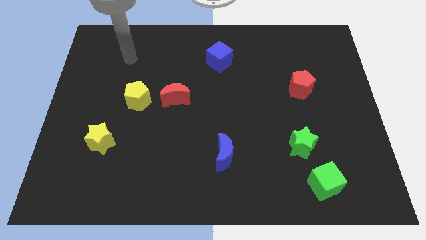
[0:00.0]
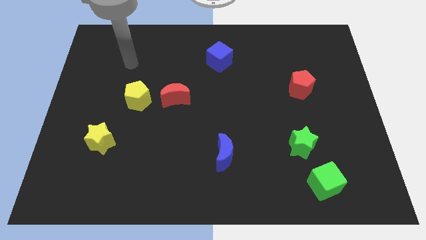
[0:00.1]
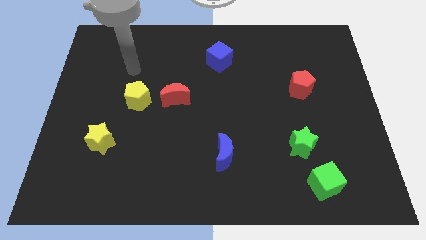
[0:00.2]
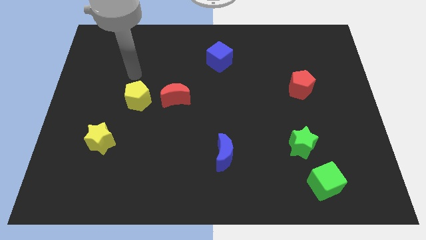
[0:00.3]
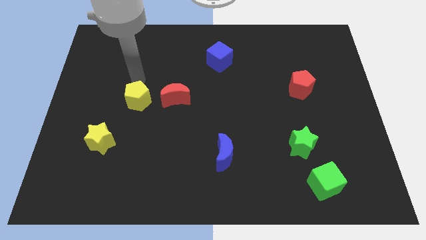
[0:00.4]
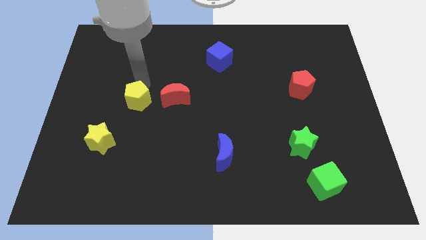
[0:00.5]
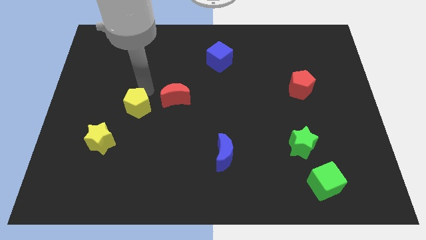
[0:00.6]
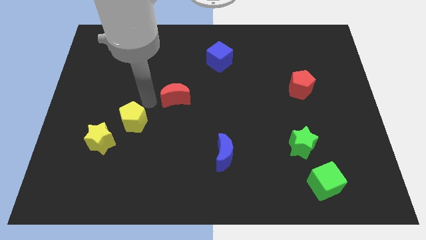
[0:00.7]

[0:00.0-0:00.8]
separate the red moon from the yellow pentagon

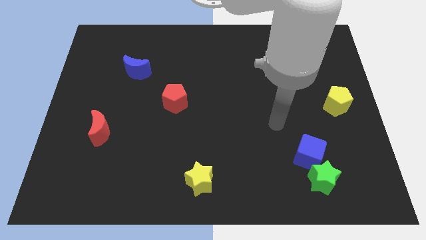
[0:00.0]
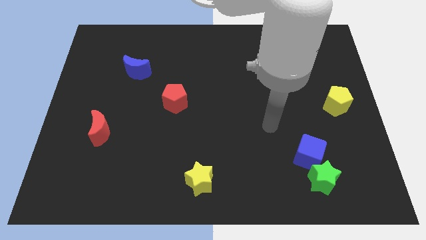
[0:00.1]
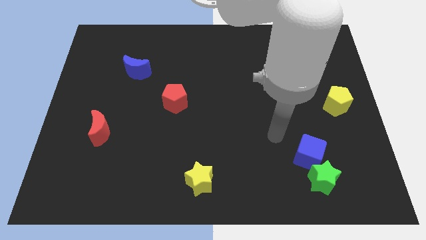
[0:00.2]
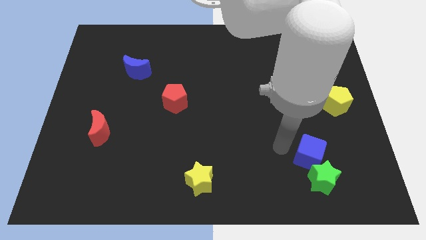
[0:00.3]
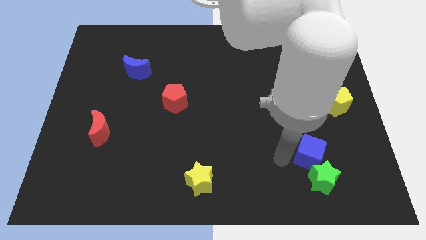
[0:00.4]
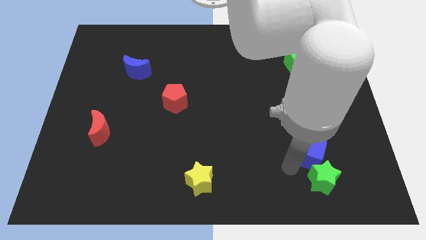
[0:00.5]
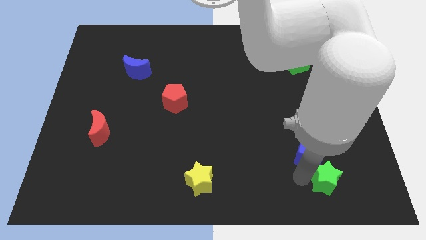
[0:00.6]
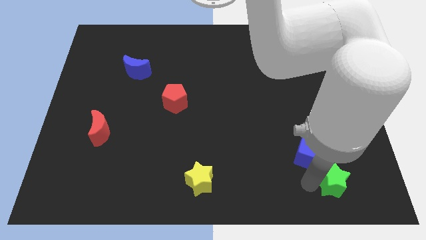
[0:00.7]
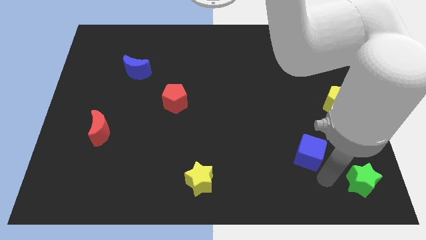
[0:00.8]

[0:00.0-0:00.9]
separate the blue cube from the green star

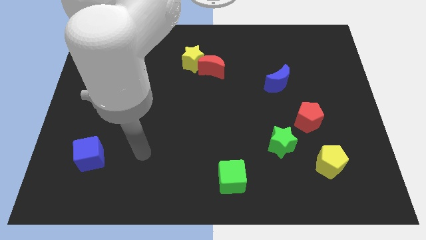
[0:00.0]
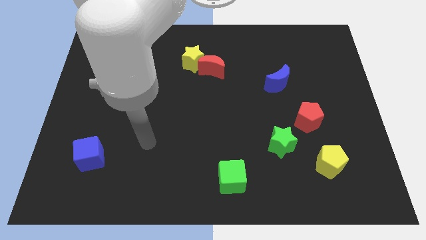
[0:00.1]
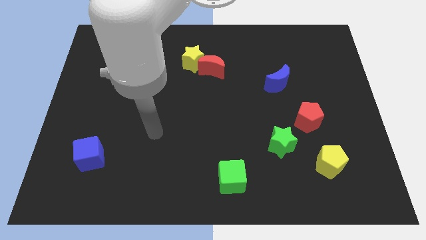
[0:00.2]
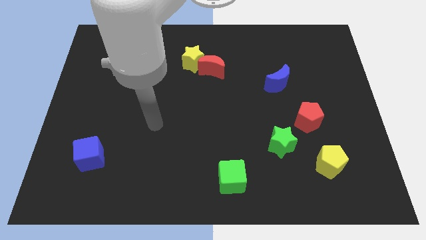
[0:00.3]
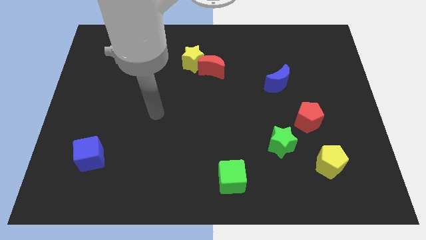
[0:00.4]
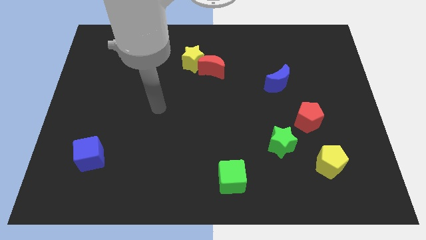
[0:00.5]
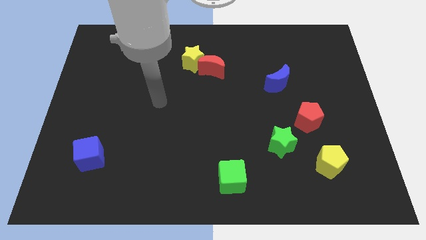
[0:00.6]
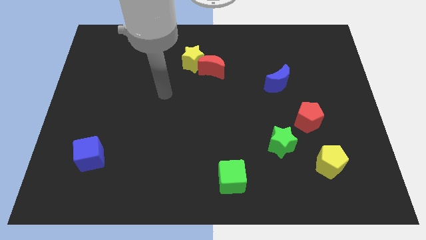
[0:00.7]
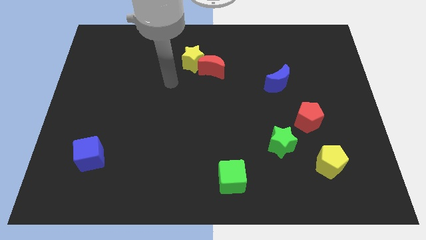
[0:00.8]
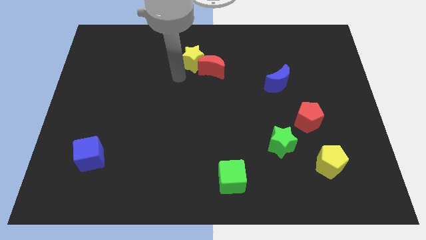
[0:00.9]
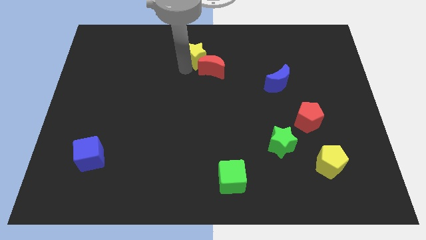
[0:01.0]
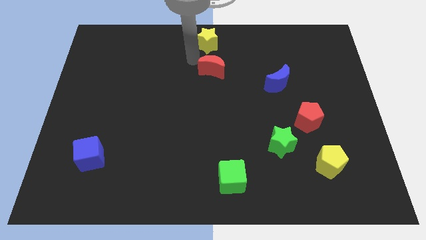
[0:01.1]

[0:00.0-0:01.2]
pull the red moon apart from the yellow star

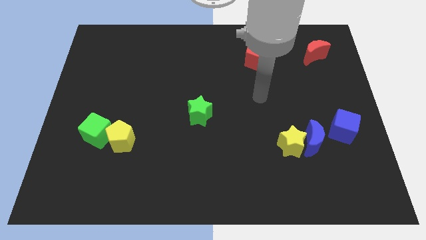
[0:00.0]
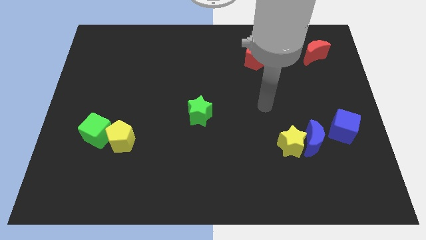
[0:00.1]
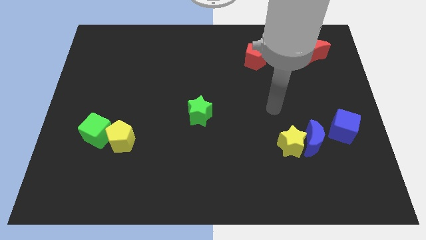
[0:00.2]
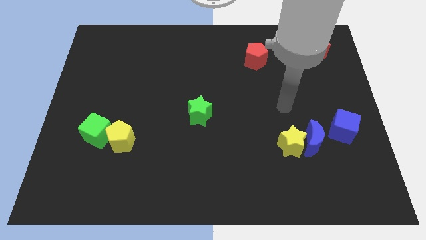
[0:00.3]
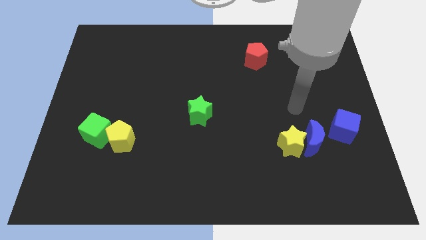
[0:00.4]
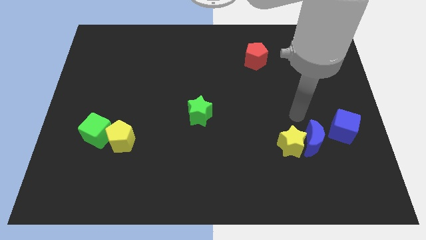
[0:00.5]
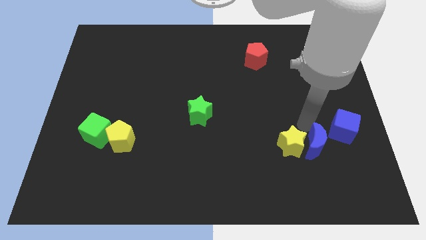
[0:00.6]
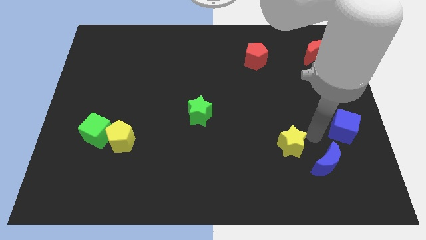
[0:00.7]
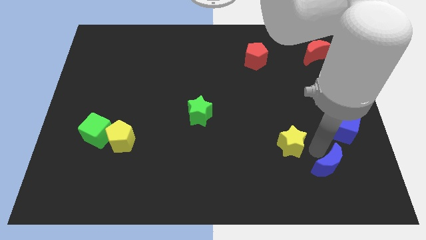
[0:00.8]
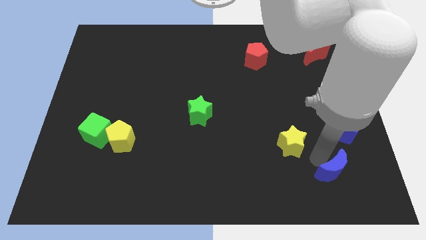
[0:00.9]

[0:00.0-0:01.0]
separate the yellow star from the blue moon

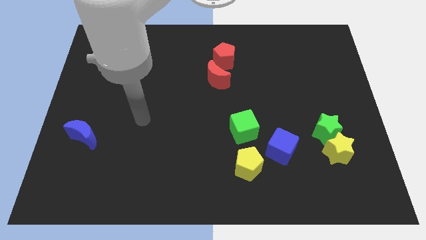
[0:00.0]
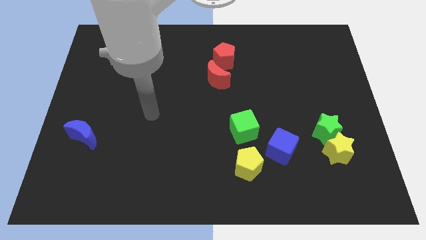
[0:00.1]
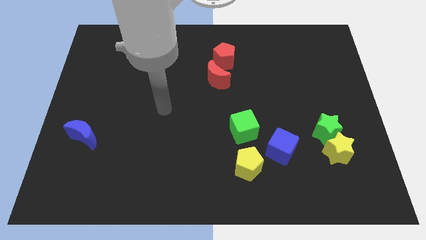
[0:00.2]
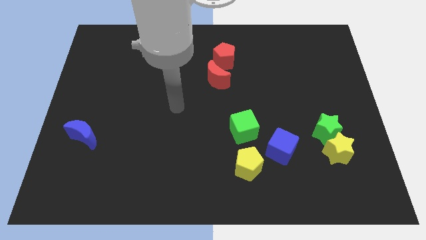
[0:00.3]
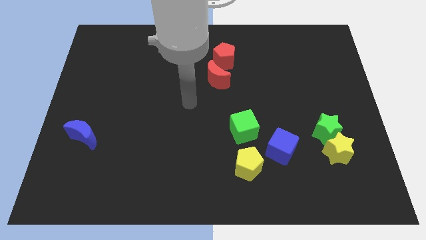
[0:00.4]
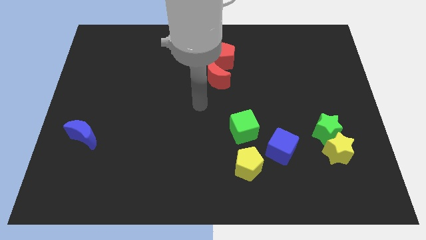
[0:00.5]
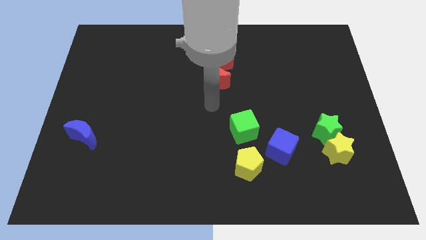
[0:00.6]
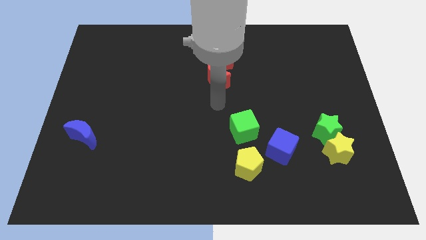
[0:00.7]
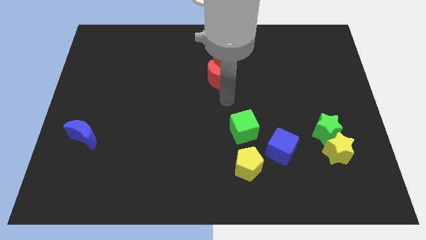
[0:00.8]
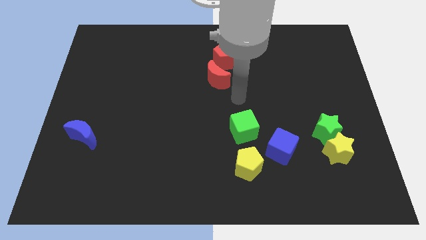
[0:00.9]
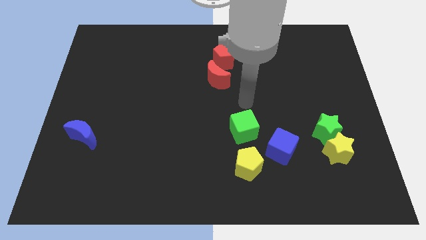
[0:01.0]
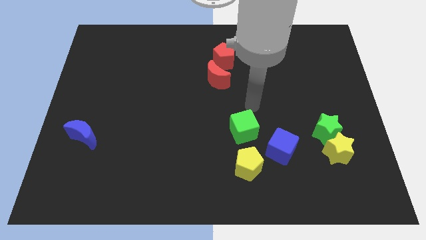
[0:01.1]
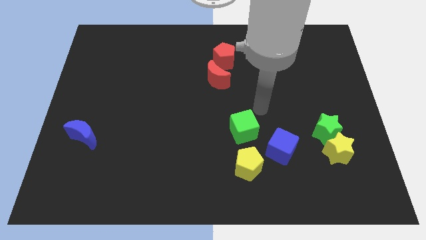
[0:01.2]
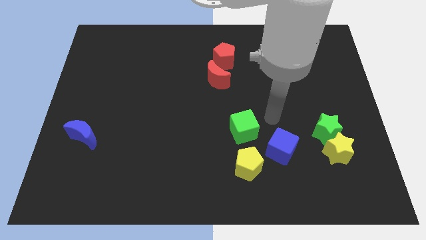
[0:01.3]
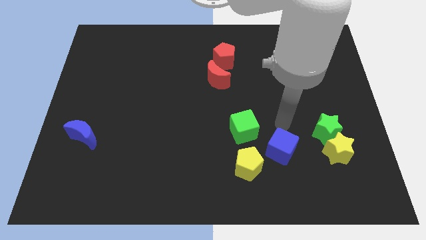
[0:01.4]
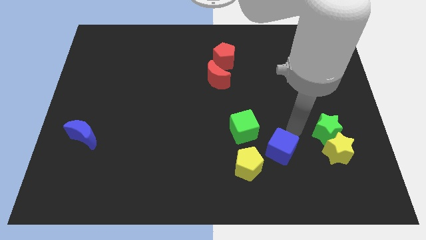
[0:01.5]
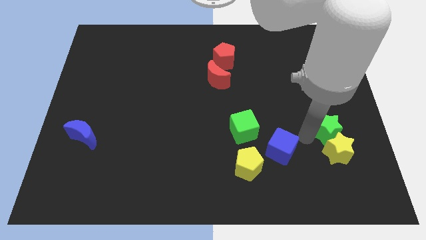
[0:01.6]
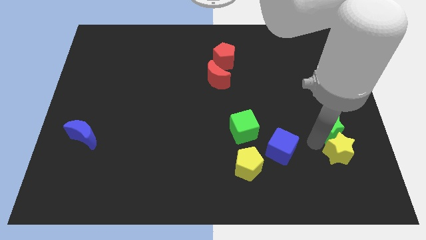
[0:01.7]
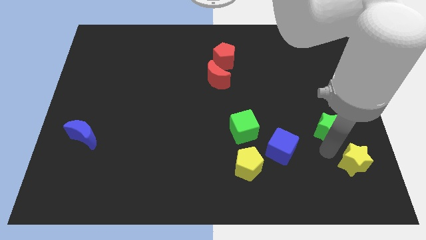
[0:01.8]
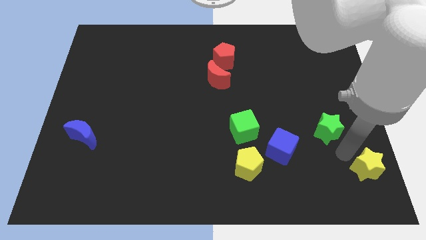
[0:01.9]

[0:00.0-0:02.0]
separate the green star from the yellow star

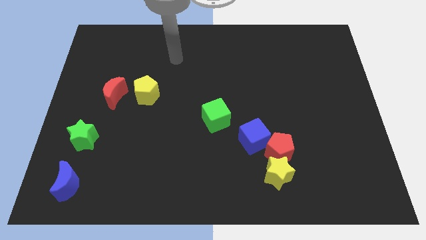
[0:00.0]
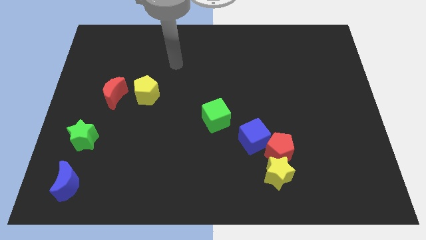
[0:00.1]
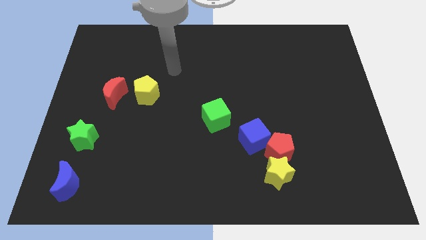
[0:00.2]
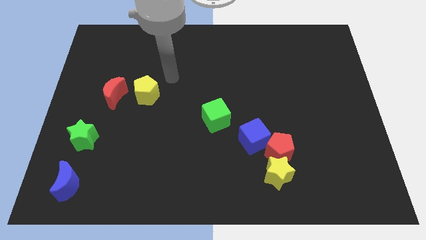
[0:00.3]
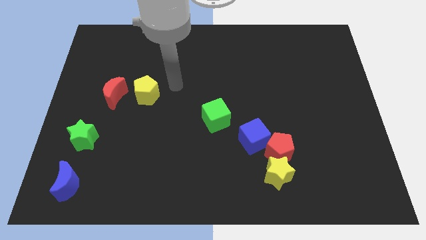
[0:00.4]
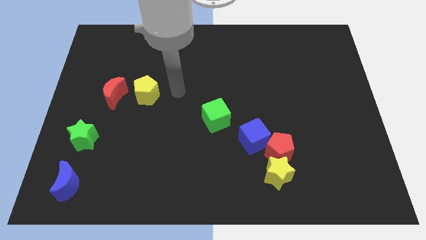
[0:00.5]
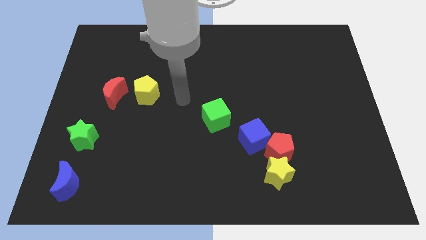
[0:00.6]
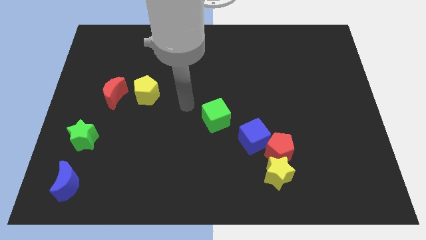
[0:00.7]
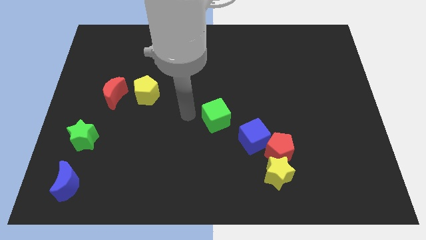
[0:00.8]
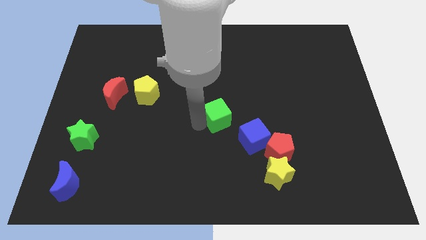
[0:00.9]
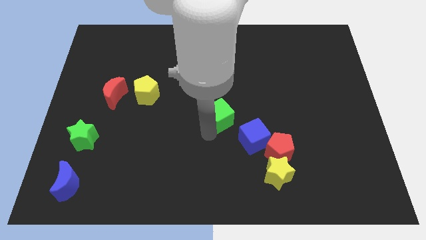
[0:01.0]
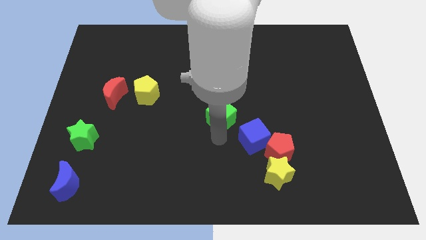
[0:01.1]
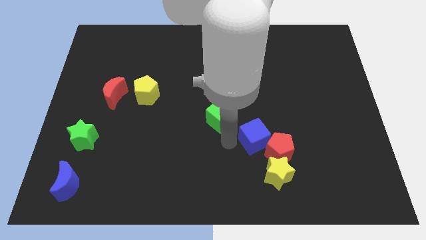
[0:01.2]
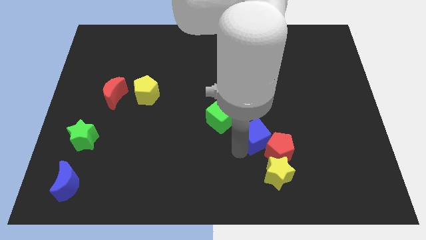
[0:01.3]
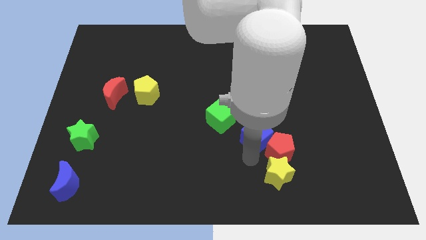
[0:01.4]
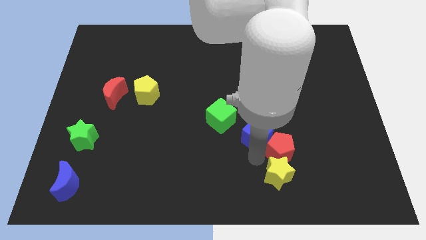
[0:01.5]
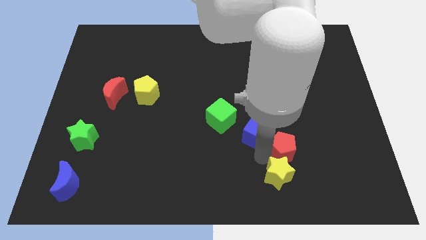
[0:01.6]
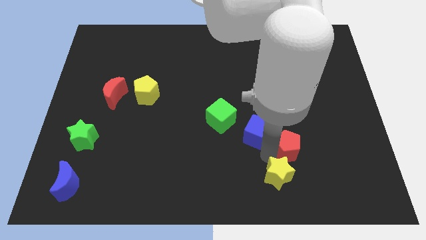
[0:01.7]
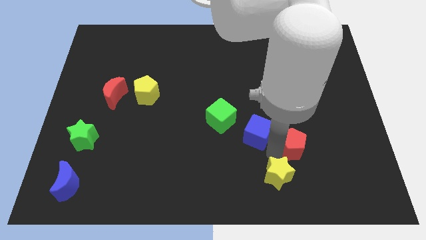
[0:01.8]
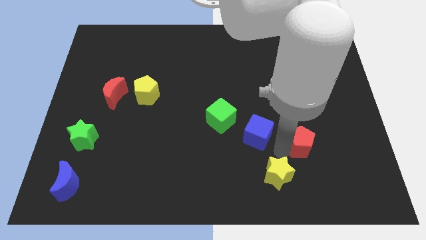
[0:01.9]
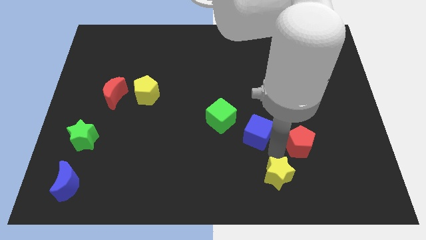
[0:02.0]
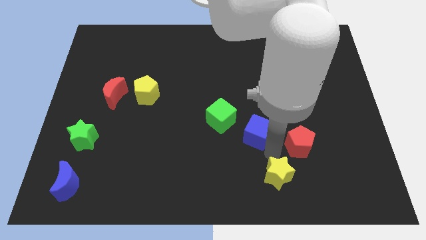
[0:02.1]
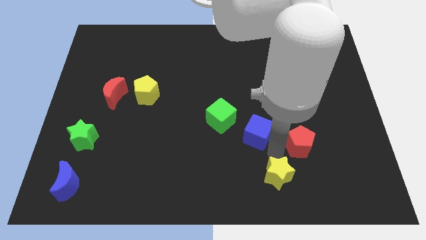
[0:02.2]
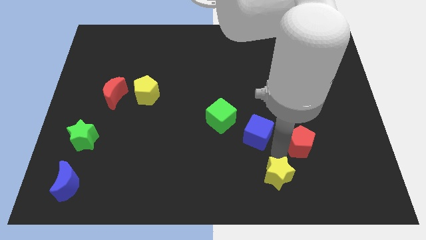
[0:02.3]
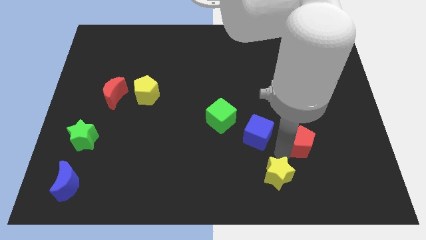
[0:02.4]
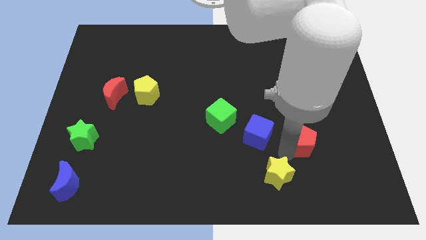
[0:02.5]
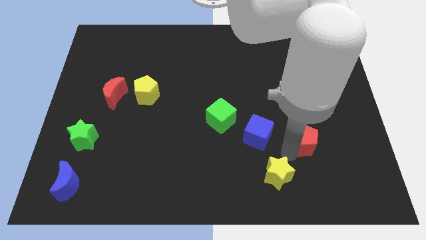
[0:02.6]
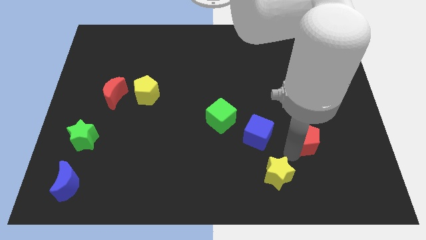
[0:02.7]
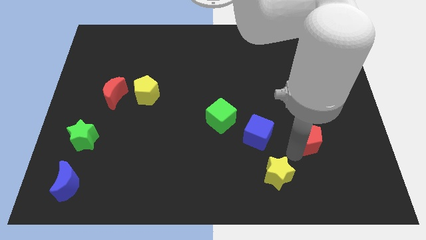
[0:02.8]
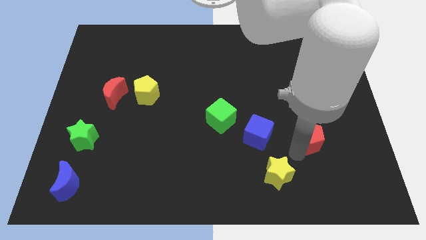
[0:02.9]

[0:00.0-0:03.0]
separate the red pentagon from the yellow star and blue cube

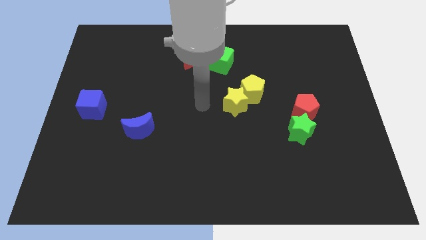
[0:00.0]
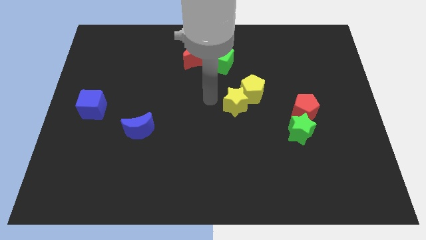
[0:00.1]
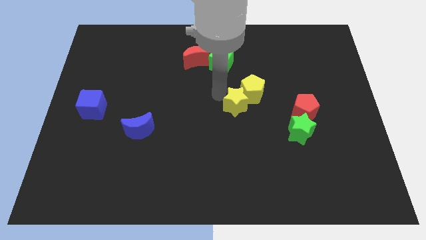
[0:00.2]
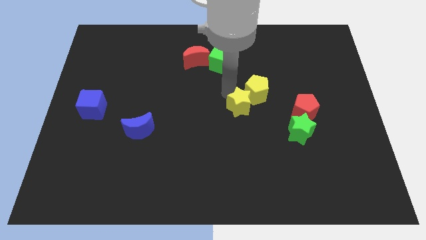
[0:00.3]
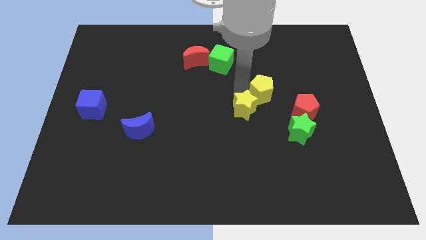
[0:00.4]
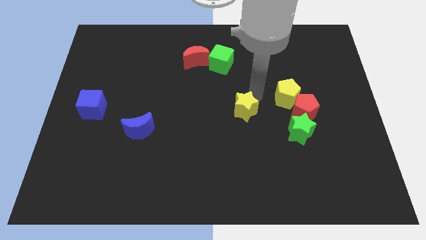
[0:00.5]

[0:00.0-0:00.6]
pull the yellow star apart from the yellow pentagon
